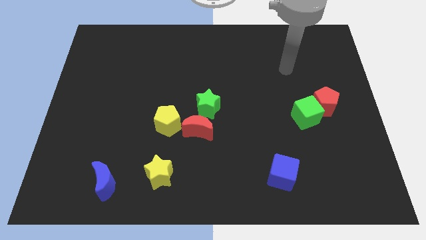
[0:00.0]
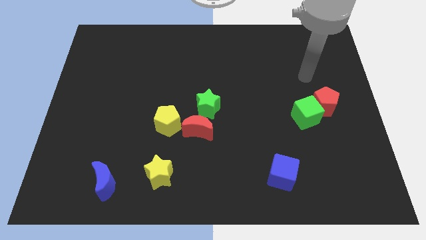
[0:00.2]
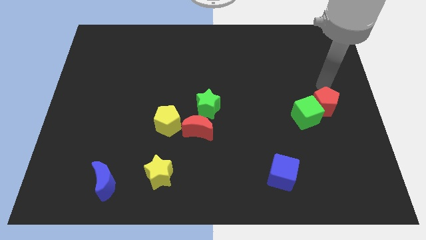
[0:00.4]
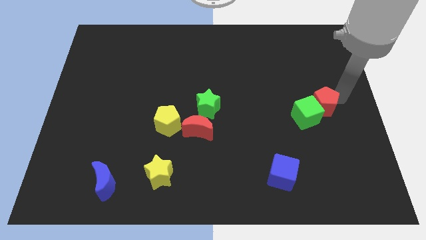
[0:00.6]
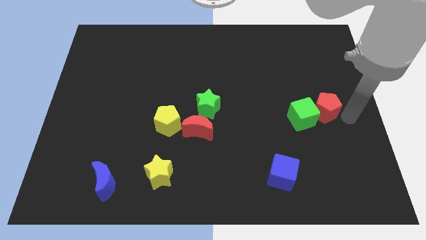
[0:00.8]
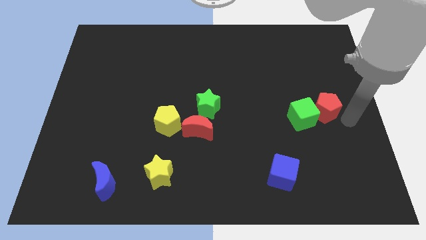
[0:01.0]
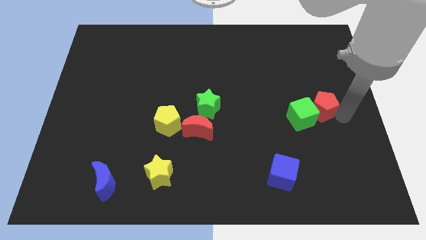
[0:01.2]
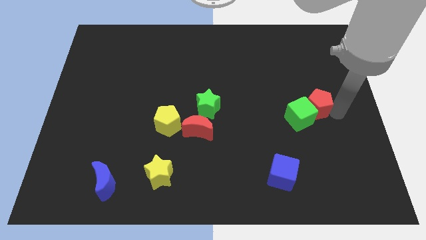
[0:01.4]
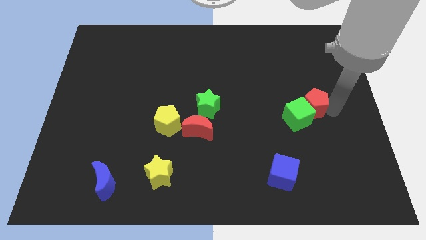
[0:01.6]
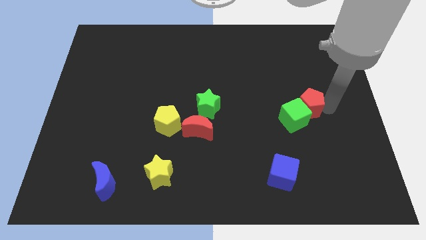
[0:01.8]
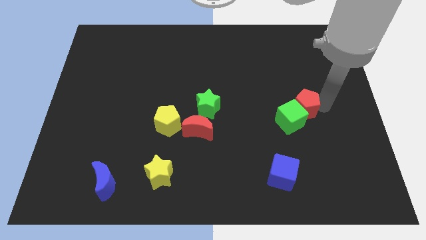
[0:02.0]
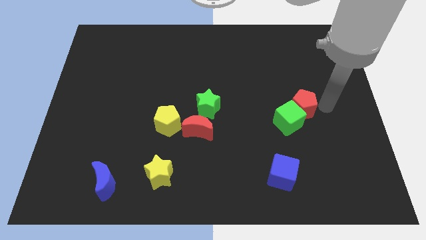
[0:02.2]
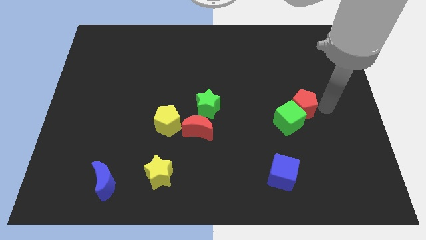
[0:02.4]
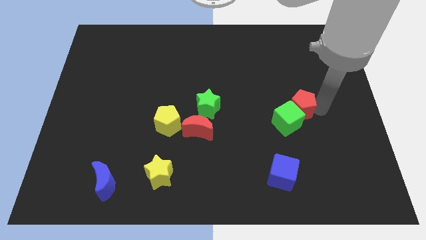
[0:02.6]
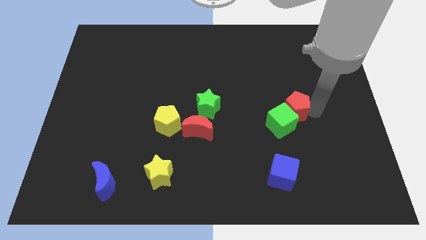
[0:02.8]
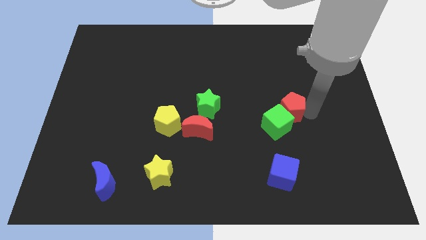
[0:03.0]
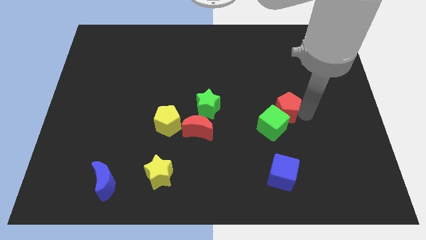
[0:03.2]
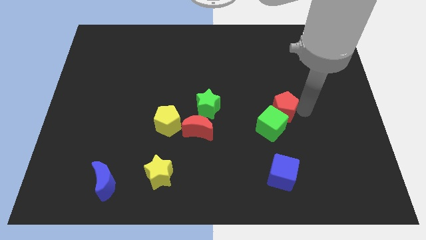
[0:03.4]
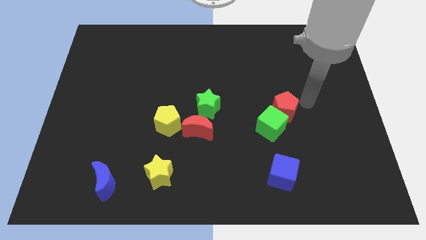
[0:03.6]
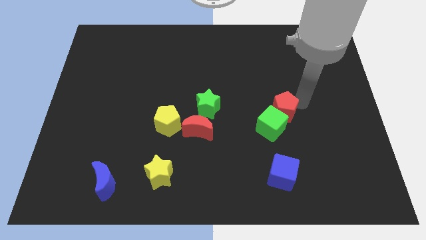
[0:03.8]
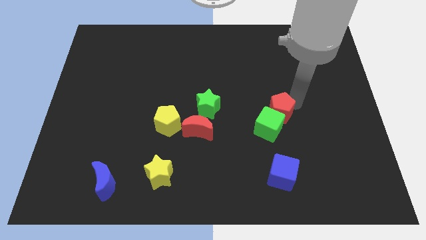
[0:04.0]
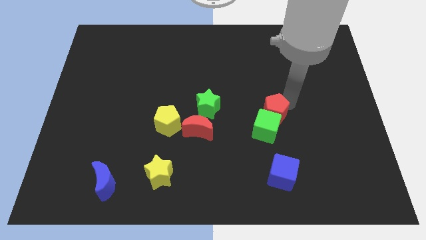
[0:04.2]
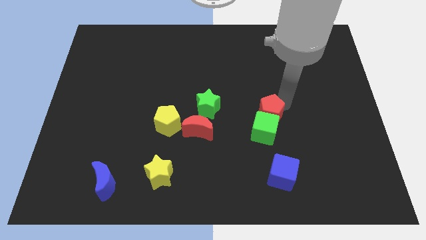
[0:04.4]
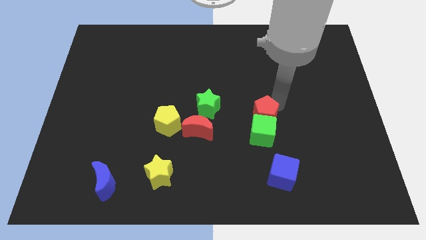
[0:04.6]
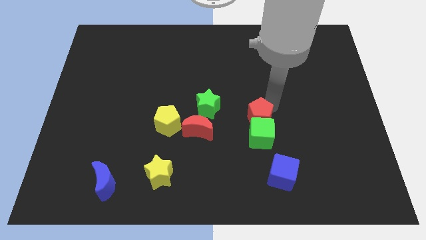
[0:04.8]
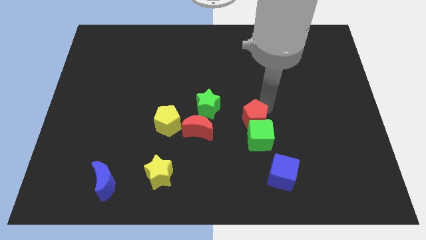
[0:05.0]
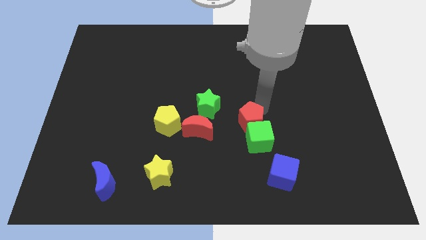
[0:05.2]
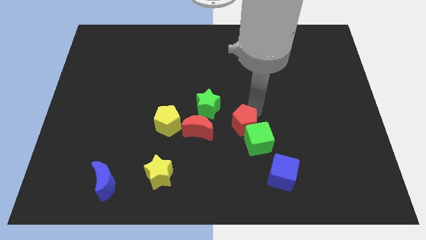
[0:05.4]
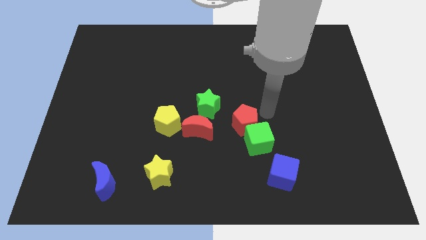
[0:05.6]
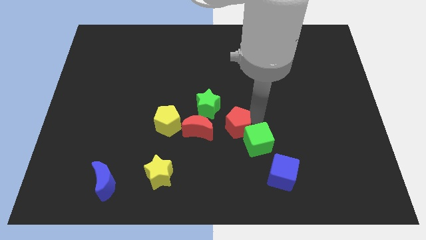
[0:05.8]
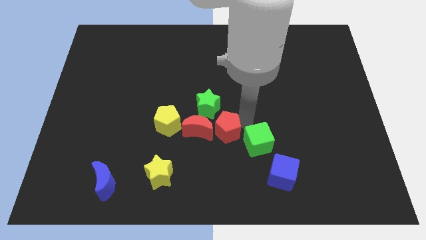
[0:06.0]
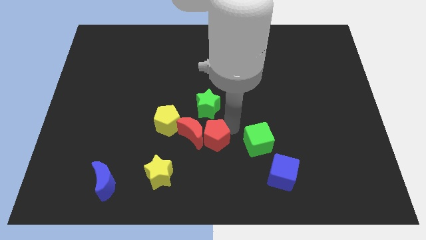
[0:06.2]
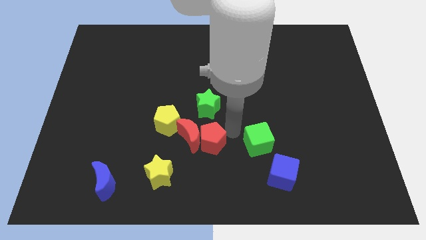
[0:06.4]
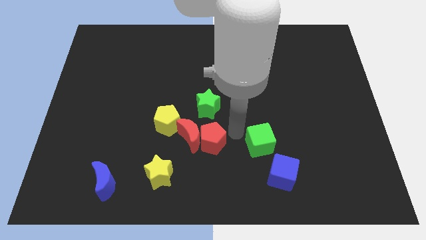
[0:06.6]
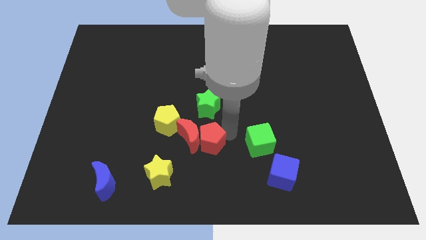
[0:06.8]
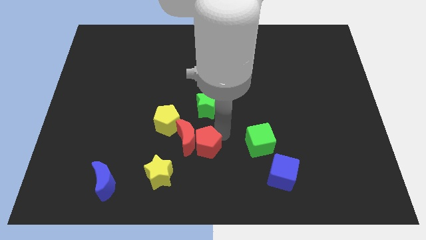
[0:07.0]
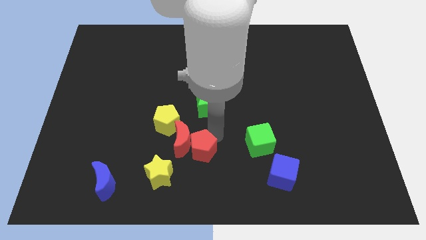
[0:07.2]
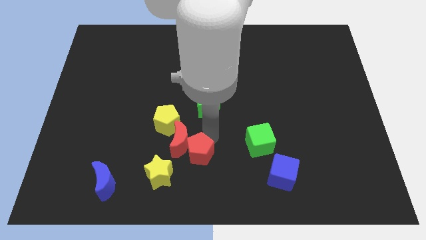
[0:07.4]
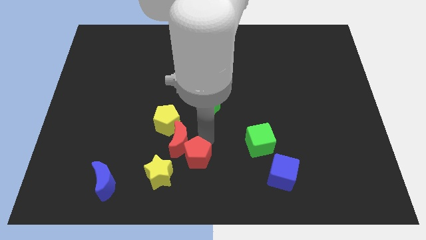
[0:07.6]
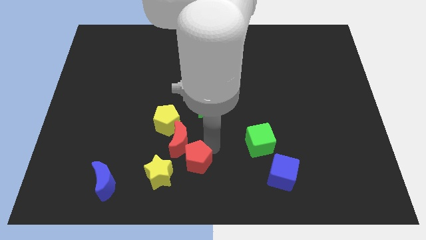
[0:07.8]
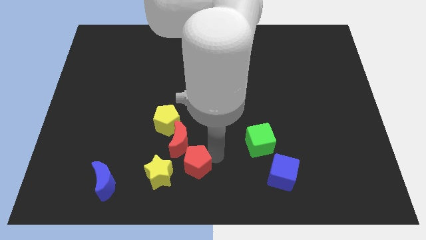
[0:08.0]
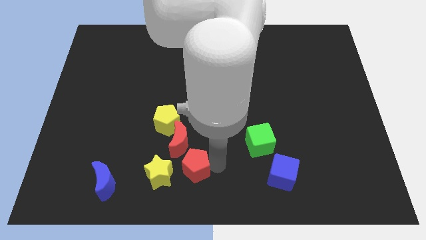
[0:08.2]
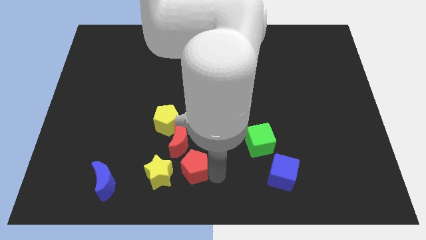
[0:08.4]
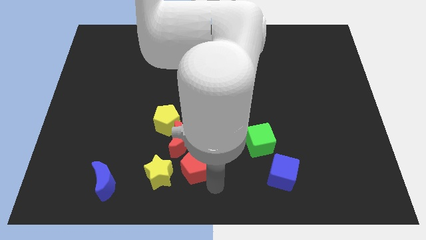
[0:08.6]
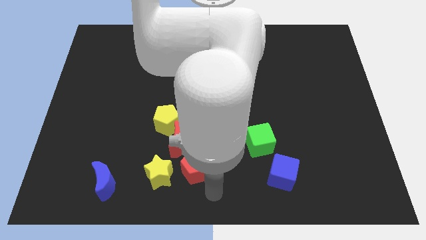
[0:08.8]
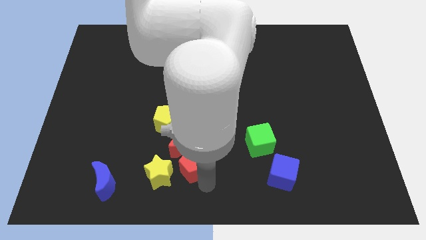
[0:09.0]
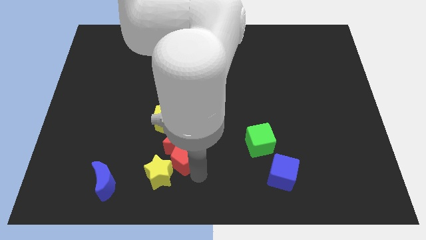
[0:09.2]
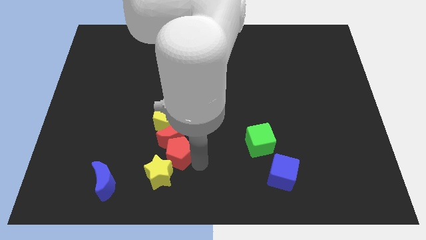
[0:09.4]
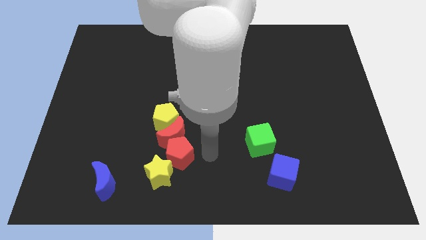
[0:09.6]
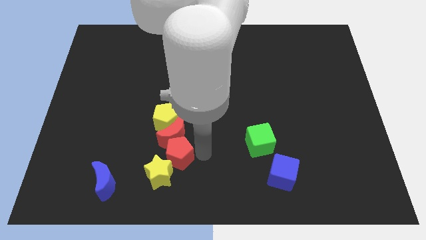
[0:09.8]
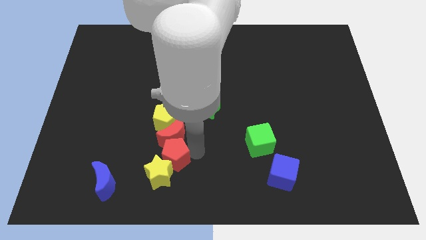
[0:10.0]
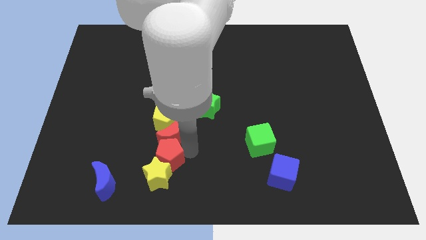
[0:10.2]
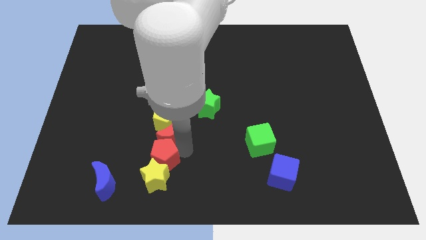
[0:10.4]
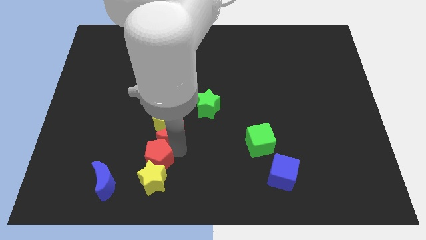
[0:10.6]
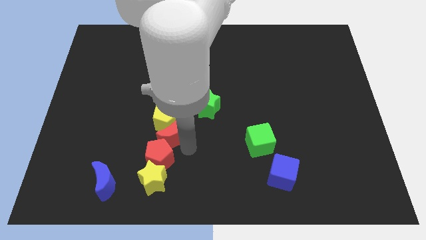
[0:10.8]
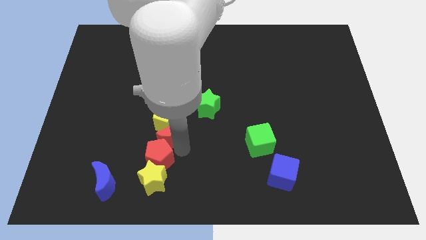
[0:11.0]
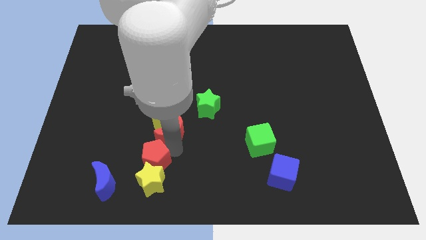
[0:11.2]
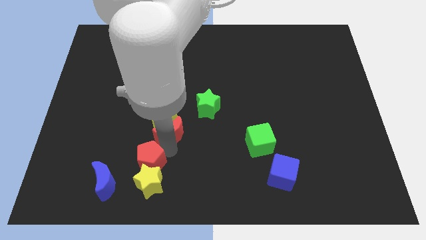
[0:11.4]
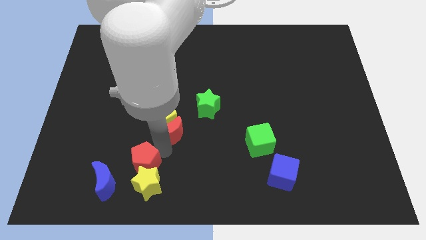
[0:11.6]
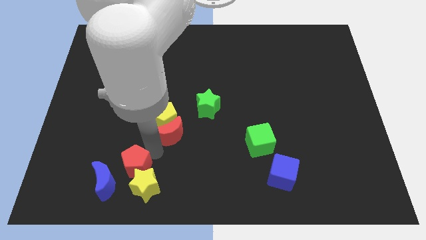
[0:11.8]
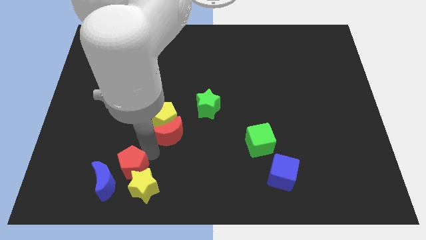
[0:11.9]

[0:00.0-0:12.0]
push the red pentagon towards the blue moon

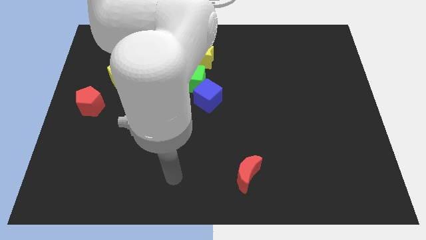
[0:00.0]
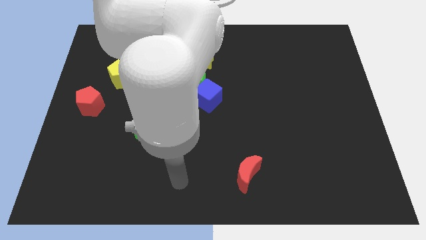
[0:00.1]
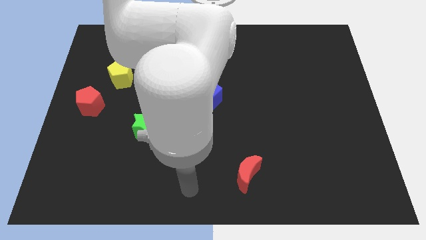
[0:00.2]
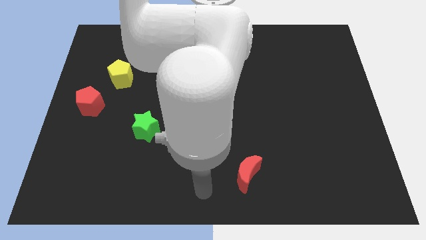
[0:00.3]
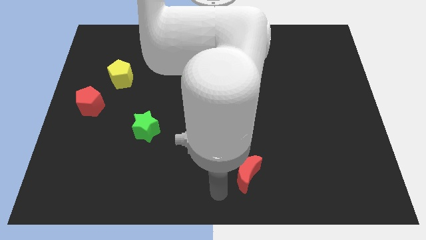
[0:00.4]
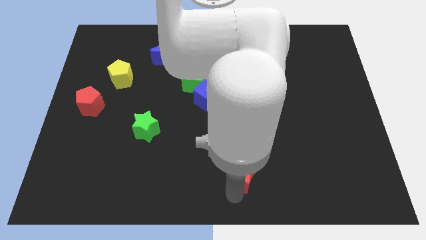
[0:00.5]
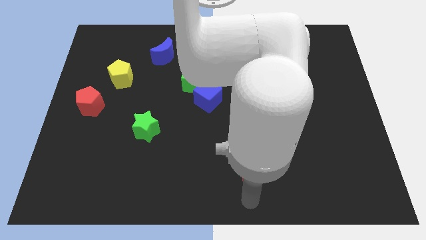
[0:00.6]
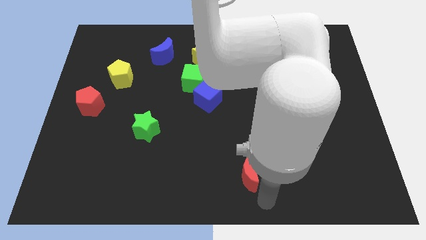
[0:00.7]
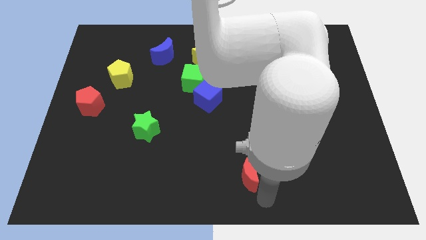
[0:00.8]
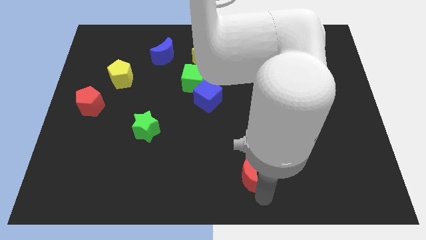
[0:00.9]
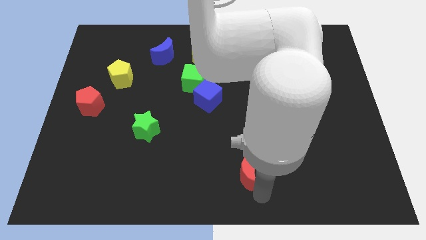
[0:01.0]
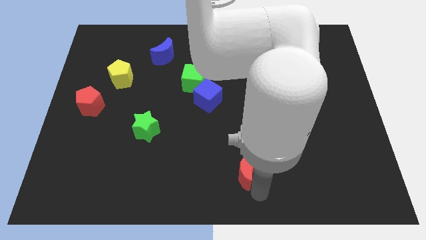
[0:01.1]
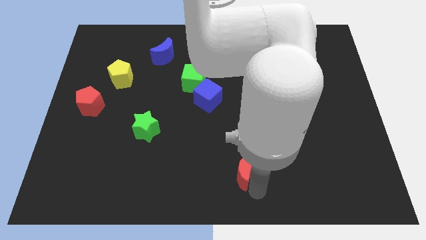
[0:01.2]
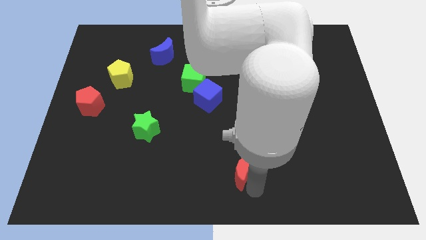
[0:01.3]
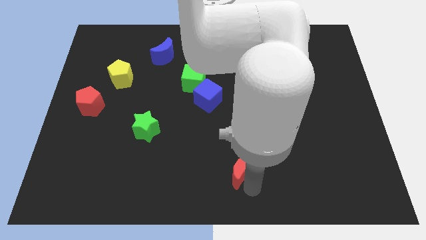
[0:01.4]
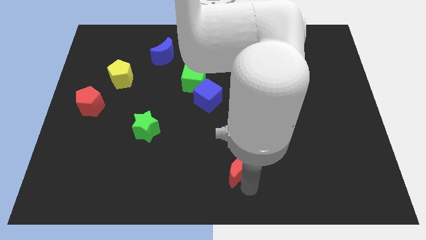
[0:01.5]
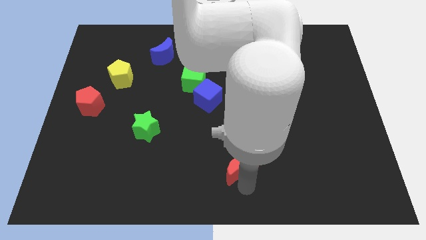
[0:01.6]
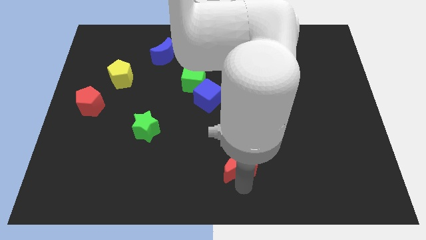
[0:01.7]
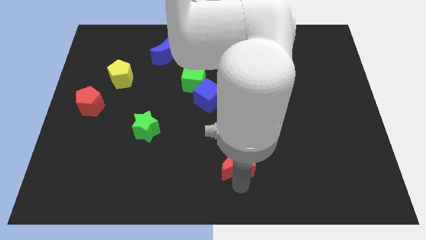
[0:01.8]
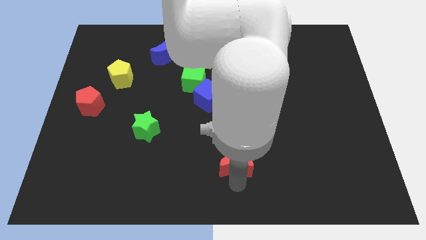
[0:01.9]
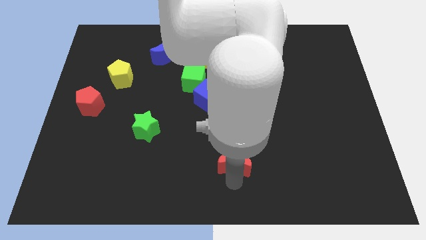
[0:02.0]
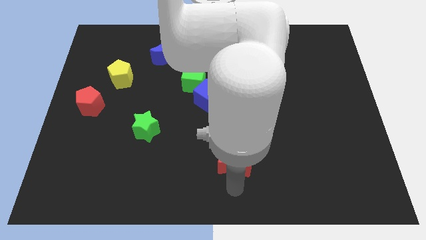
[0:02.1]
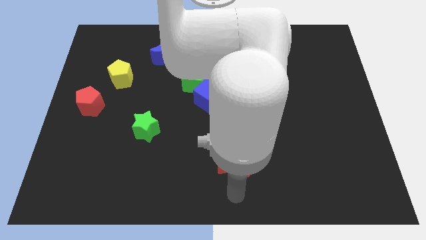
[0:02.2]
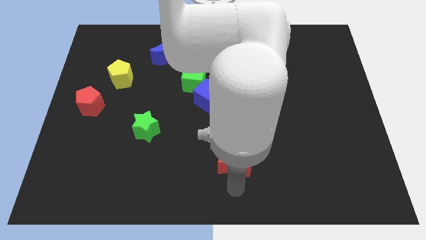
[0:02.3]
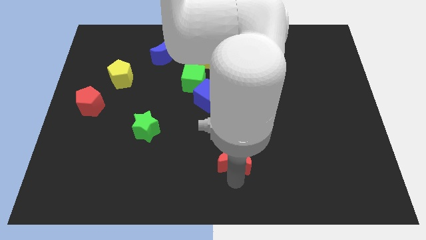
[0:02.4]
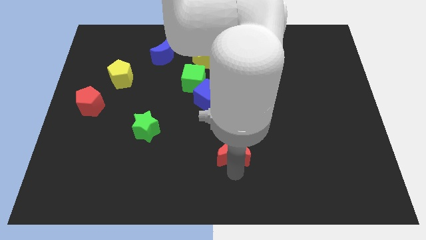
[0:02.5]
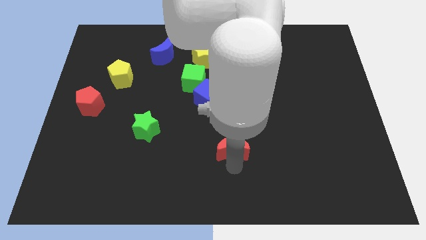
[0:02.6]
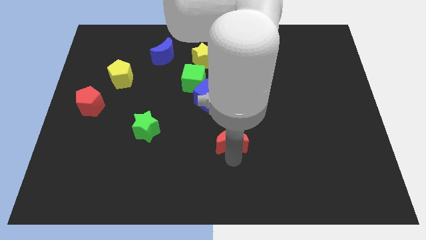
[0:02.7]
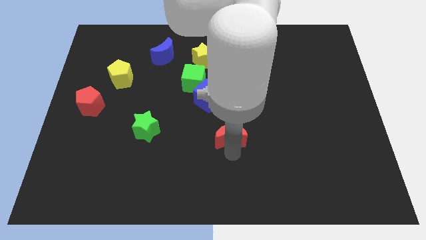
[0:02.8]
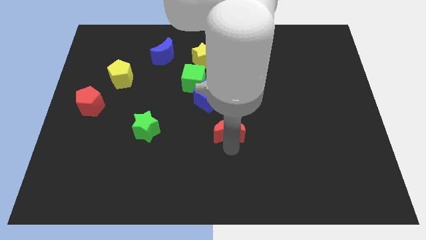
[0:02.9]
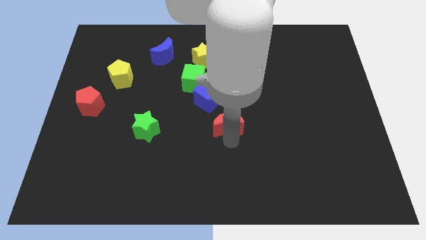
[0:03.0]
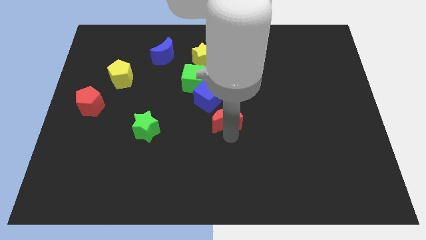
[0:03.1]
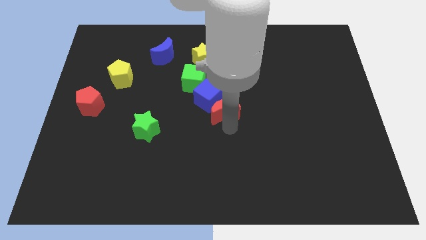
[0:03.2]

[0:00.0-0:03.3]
move the red moon next to the blue cube
